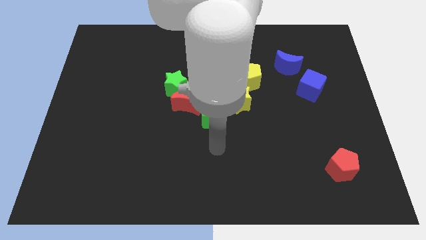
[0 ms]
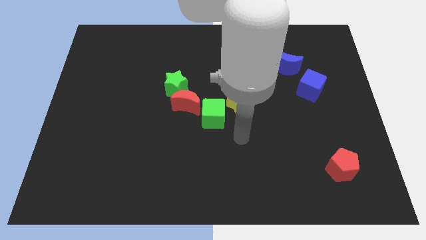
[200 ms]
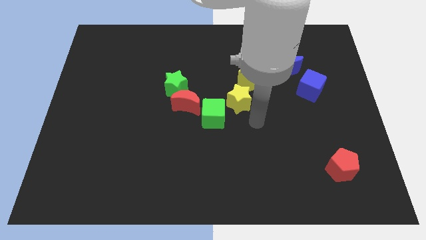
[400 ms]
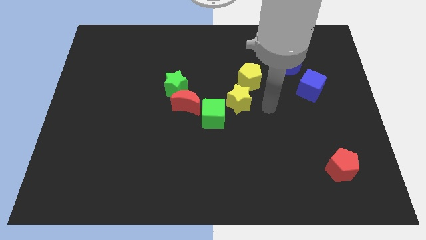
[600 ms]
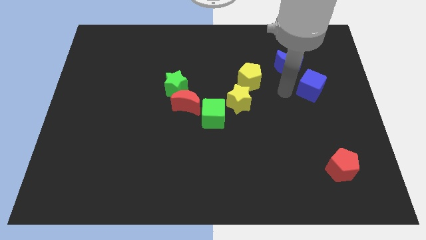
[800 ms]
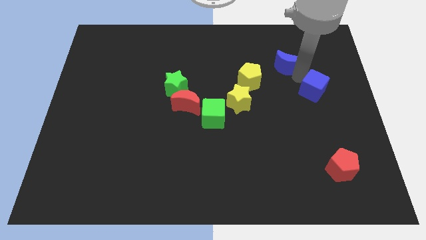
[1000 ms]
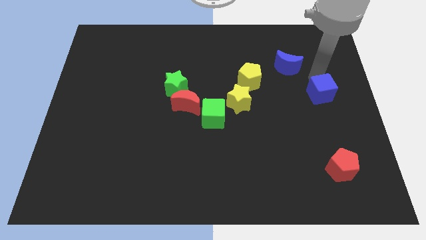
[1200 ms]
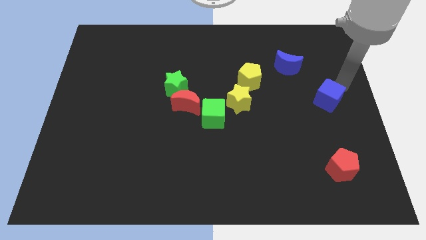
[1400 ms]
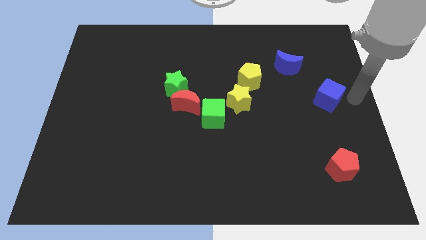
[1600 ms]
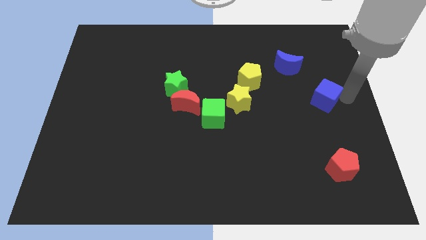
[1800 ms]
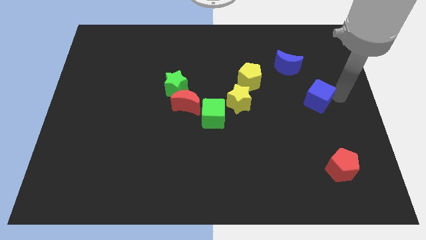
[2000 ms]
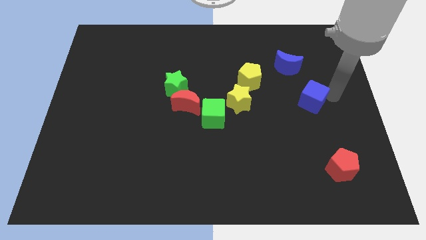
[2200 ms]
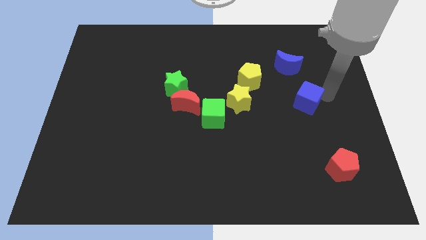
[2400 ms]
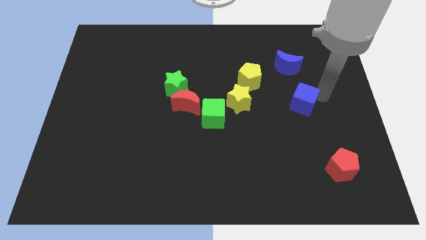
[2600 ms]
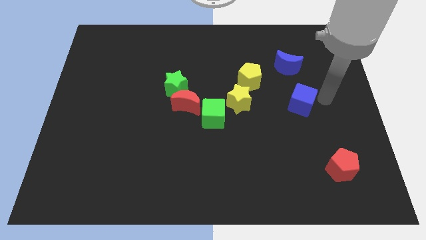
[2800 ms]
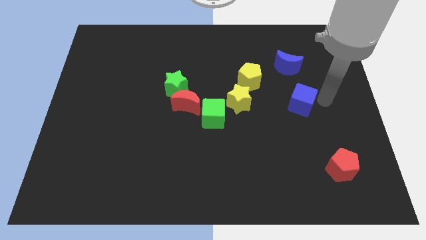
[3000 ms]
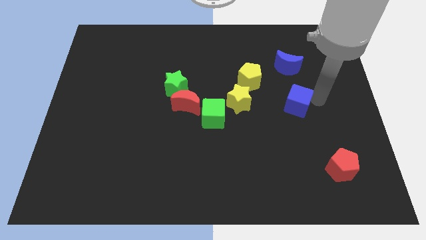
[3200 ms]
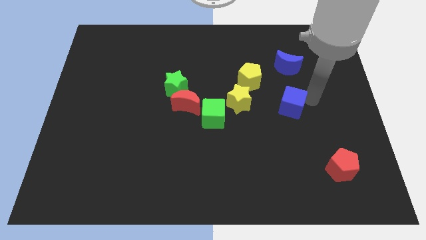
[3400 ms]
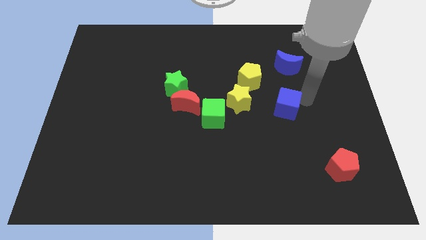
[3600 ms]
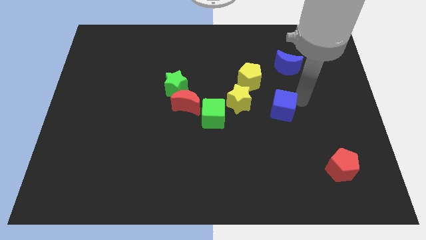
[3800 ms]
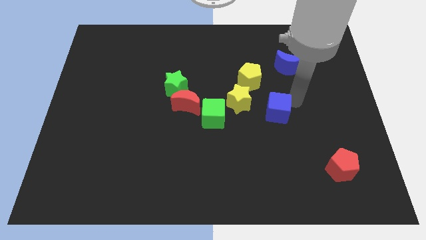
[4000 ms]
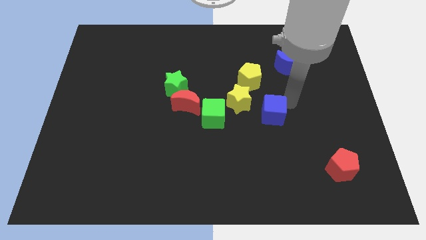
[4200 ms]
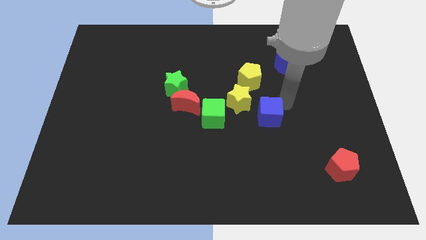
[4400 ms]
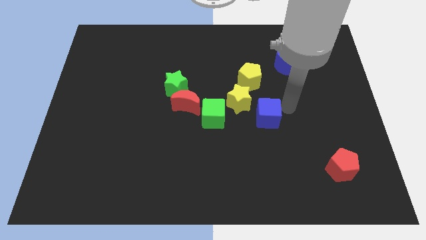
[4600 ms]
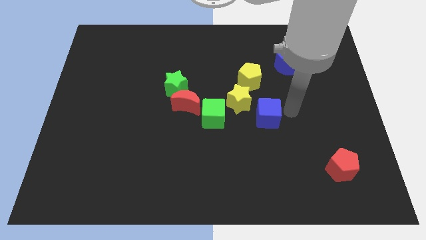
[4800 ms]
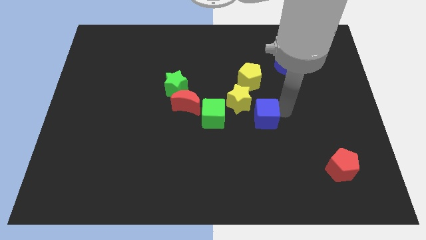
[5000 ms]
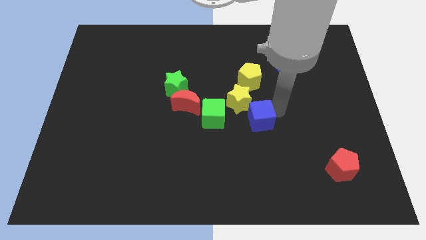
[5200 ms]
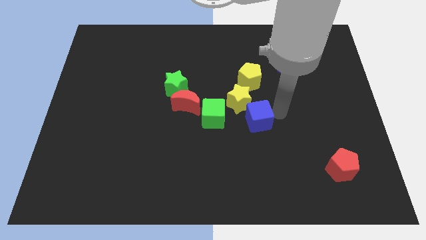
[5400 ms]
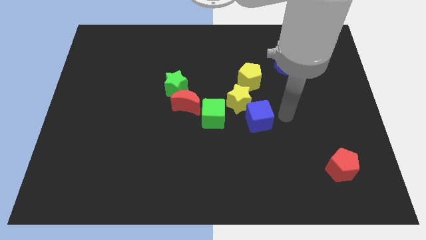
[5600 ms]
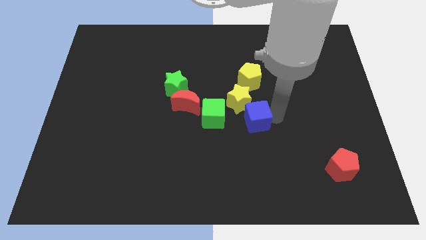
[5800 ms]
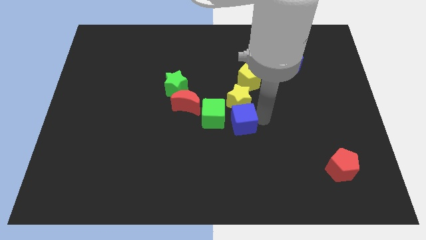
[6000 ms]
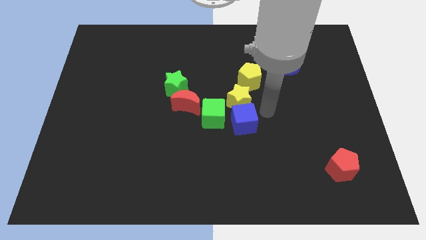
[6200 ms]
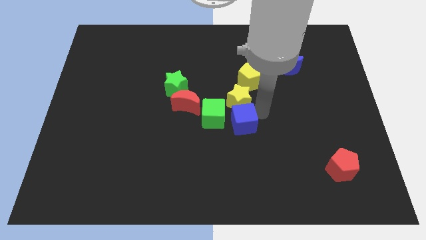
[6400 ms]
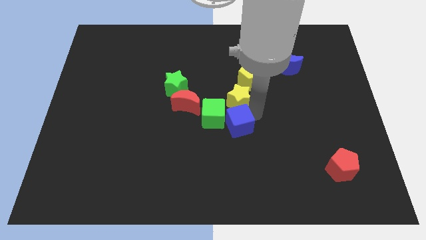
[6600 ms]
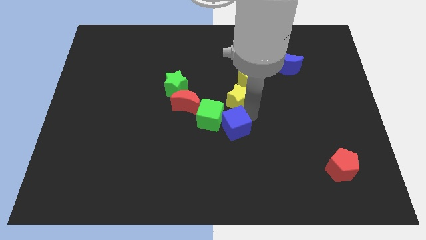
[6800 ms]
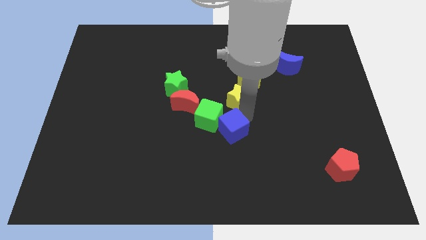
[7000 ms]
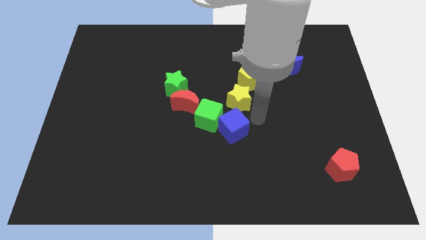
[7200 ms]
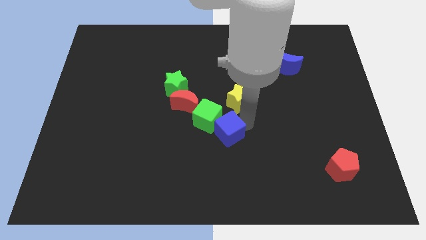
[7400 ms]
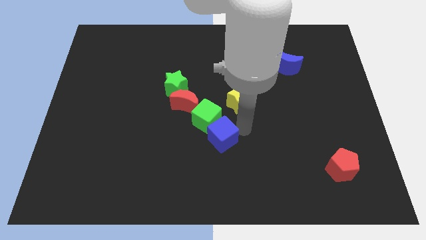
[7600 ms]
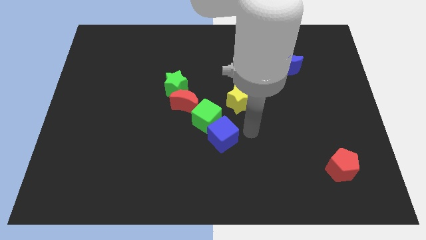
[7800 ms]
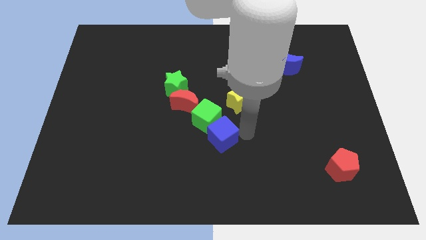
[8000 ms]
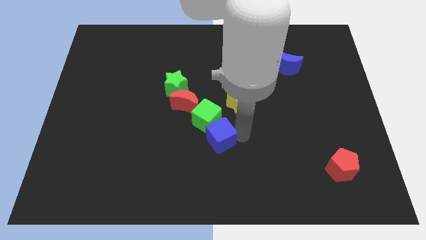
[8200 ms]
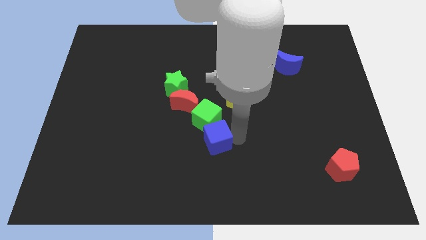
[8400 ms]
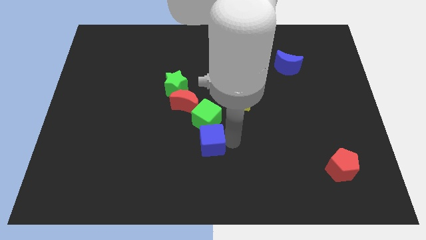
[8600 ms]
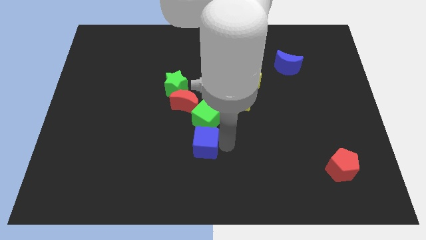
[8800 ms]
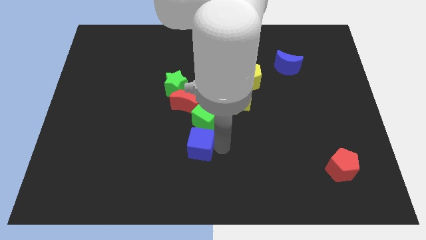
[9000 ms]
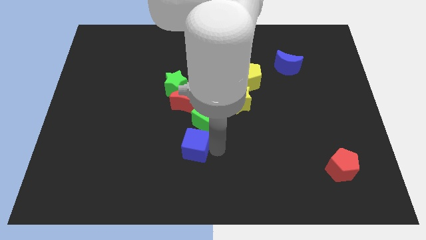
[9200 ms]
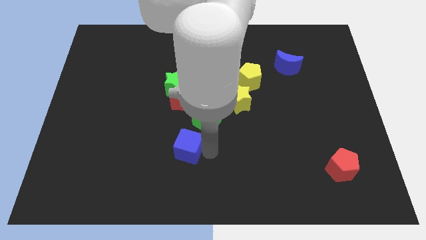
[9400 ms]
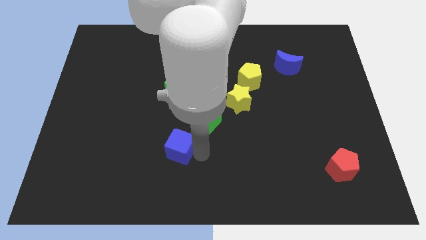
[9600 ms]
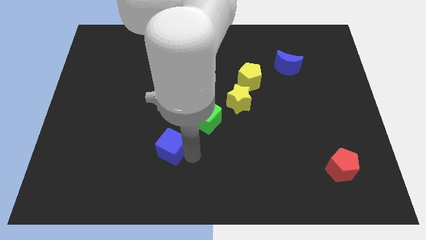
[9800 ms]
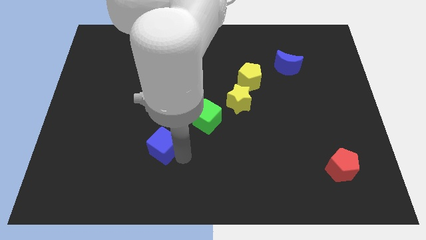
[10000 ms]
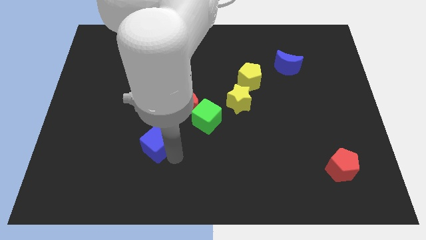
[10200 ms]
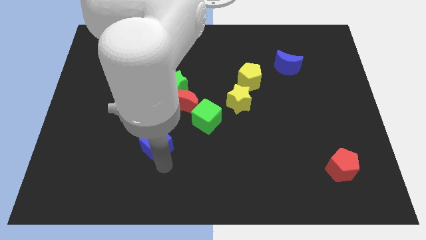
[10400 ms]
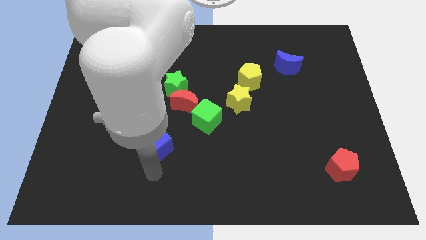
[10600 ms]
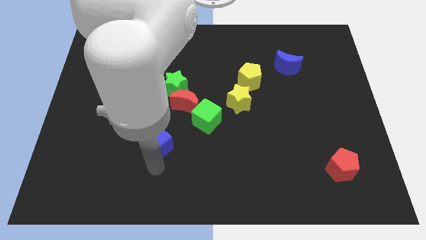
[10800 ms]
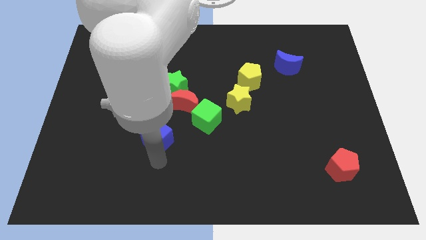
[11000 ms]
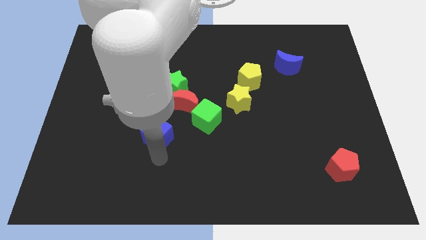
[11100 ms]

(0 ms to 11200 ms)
move the blue cube left of the green cube
